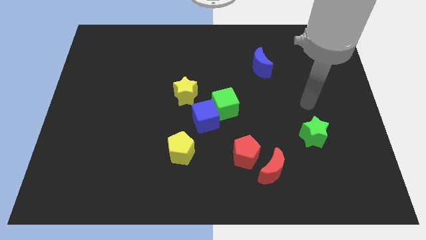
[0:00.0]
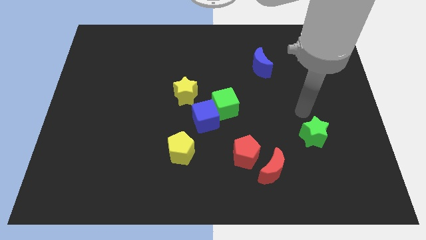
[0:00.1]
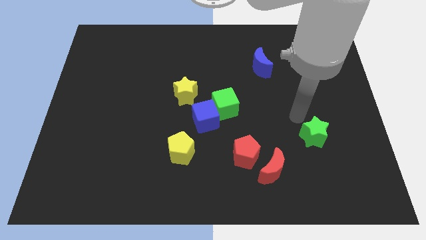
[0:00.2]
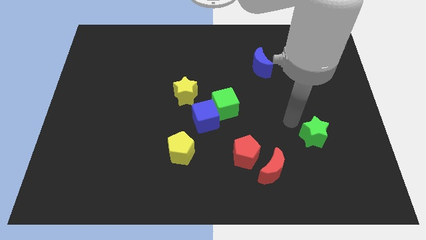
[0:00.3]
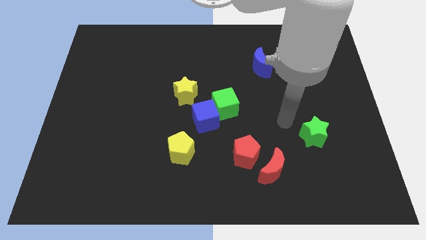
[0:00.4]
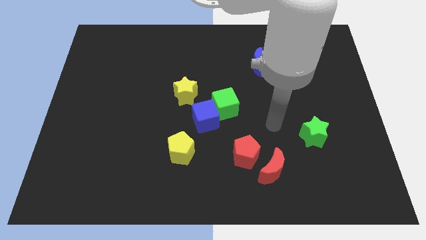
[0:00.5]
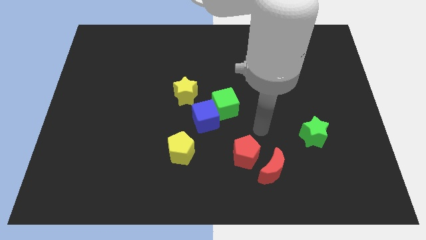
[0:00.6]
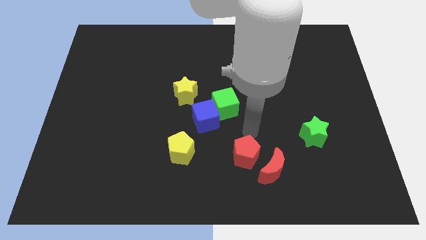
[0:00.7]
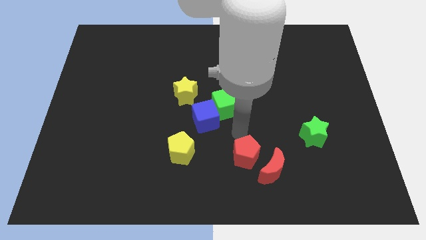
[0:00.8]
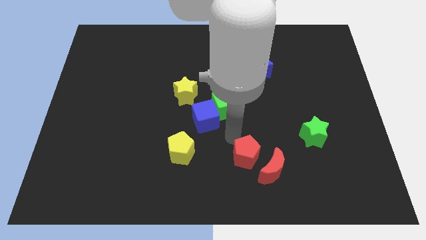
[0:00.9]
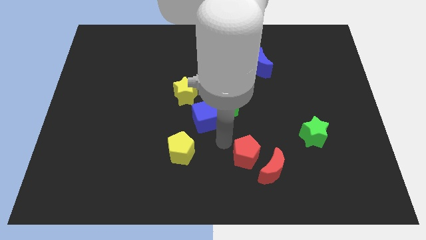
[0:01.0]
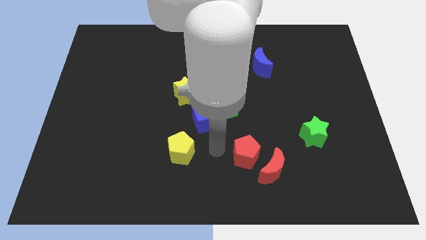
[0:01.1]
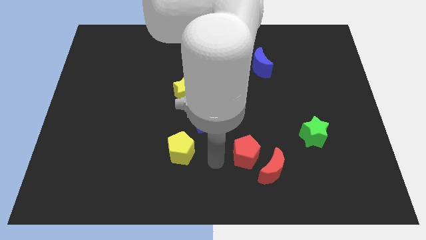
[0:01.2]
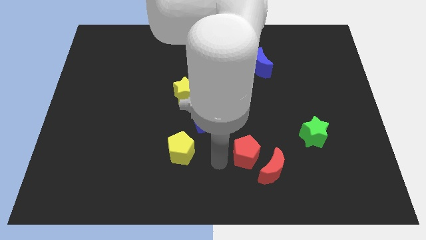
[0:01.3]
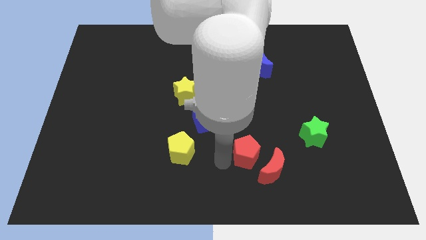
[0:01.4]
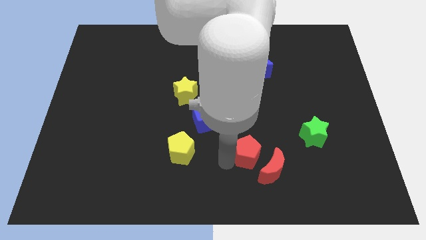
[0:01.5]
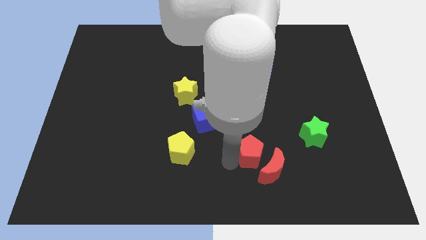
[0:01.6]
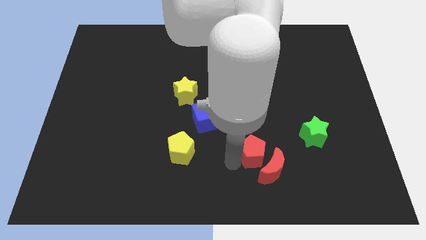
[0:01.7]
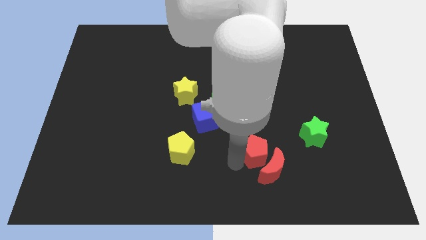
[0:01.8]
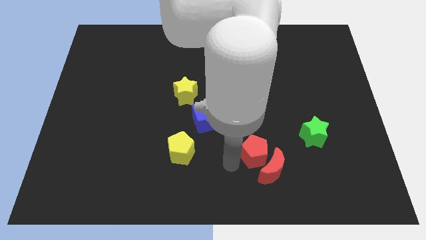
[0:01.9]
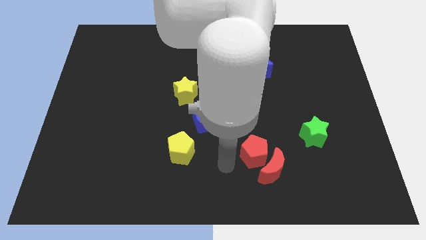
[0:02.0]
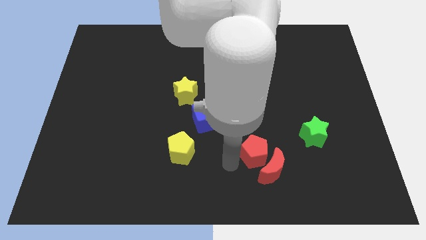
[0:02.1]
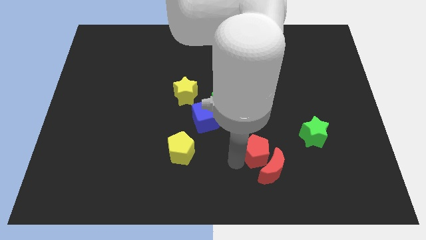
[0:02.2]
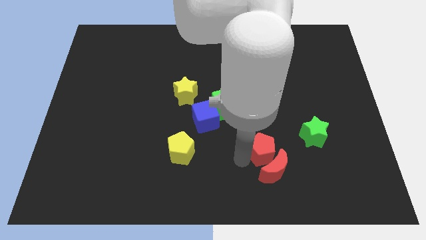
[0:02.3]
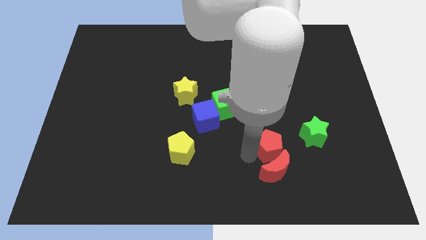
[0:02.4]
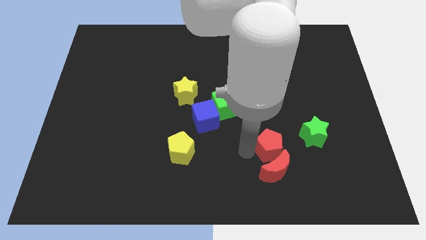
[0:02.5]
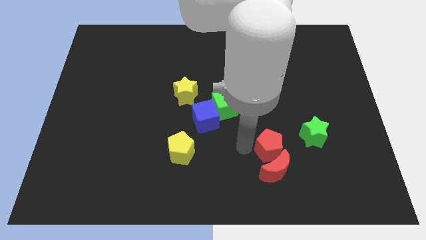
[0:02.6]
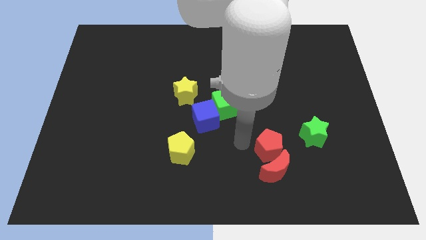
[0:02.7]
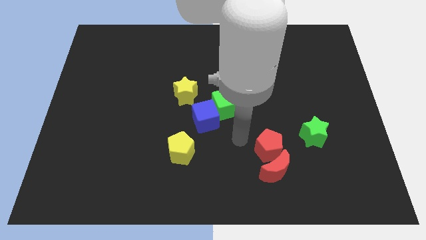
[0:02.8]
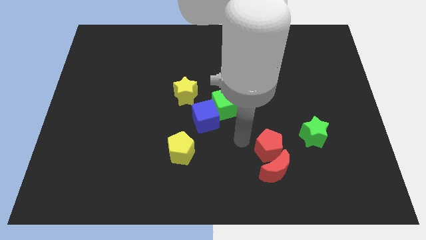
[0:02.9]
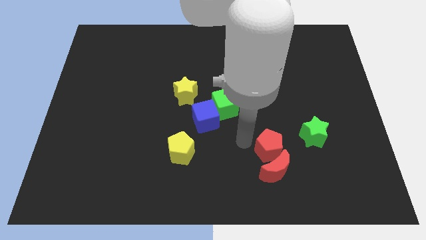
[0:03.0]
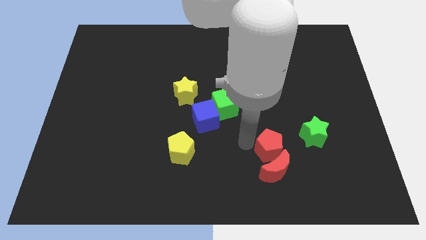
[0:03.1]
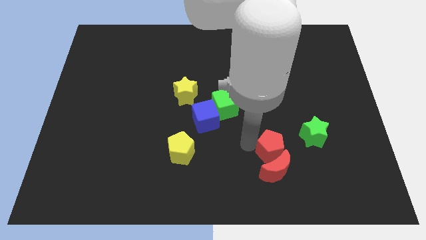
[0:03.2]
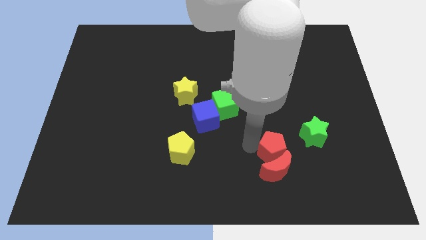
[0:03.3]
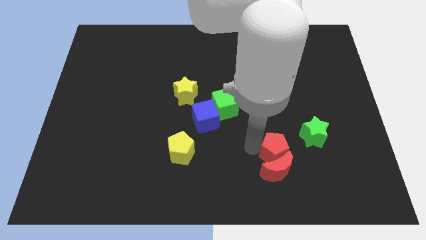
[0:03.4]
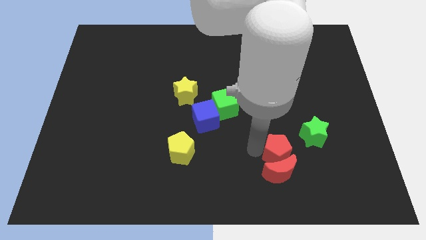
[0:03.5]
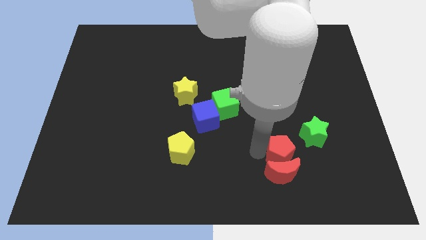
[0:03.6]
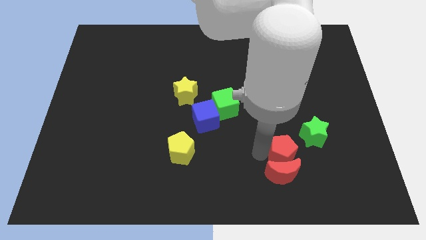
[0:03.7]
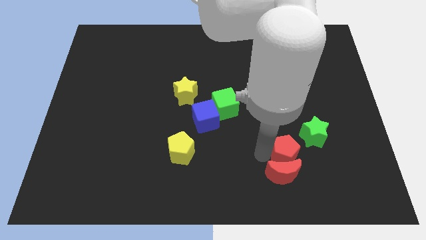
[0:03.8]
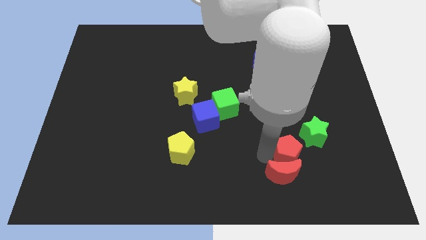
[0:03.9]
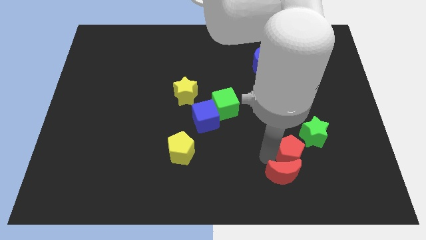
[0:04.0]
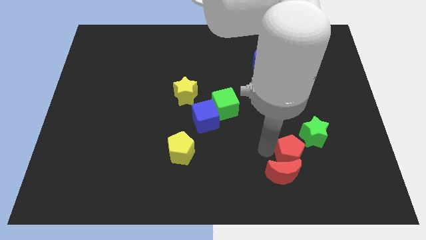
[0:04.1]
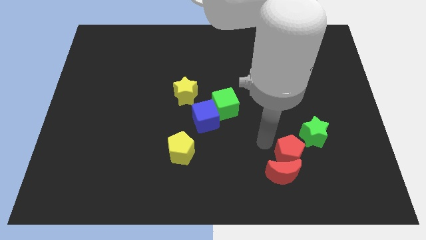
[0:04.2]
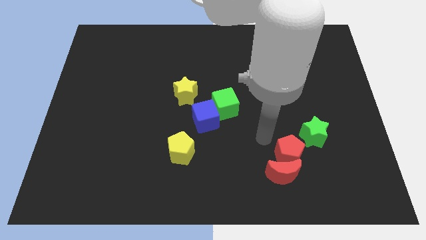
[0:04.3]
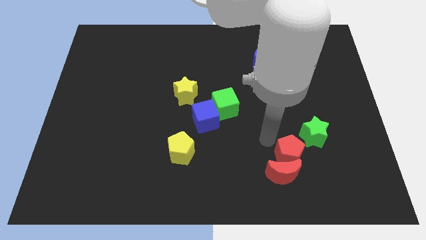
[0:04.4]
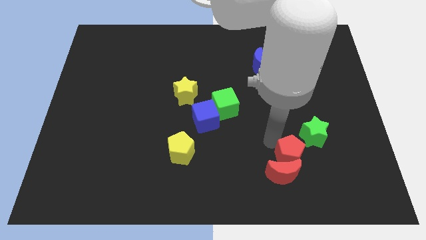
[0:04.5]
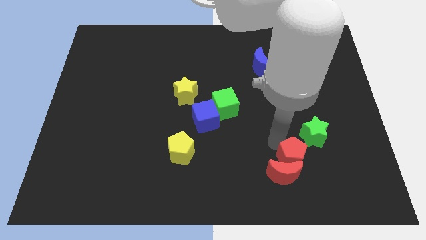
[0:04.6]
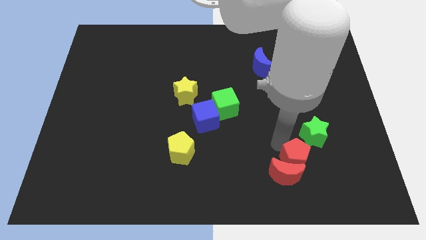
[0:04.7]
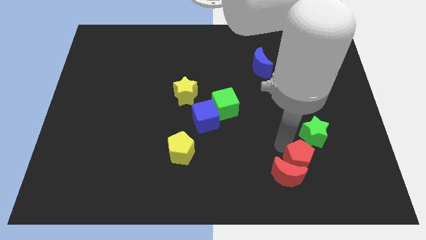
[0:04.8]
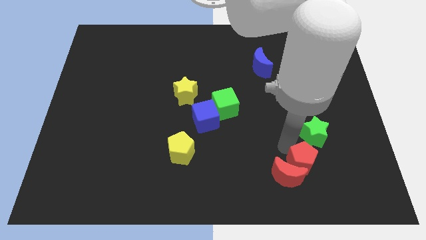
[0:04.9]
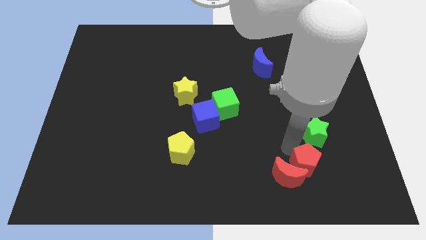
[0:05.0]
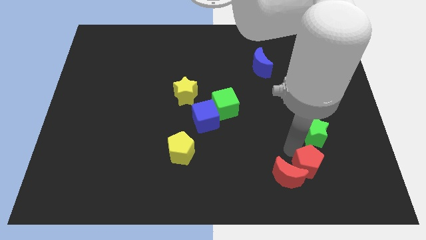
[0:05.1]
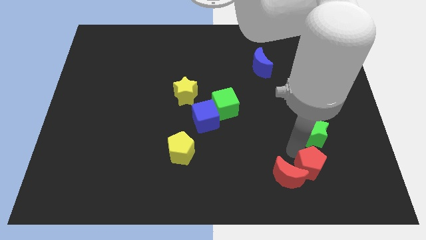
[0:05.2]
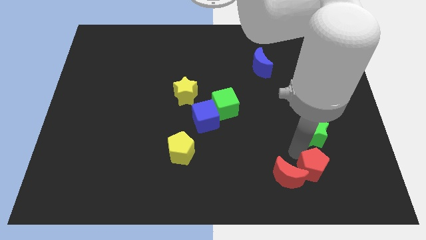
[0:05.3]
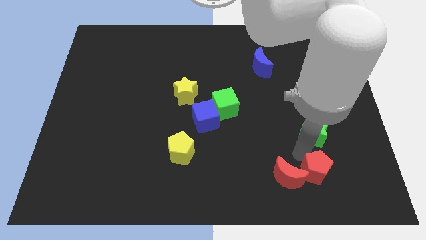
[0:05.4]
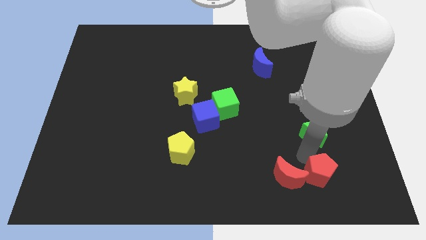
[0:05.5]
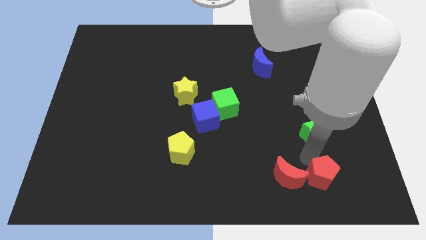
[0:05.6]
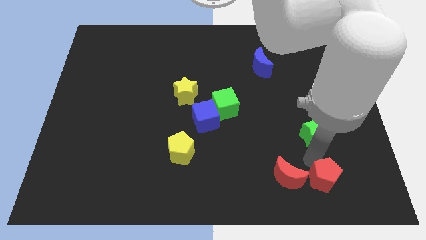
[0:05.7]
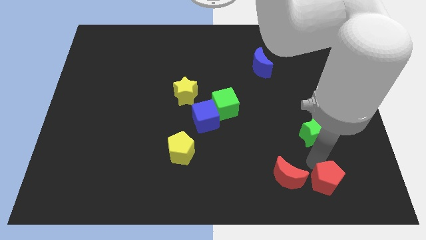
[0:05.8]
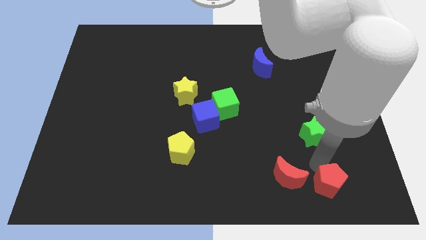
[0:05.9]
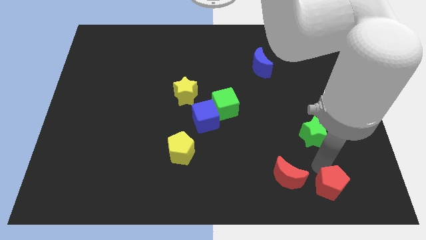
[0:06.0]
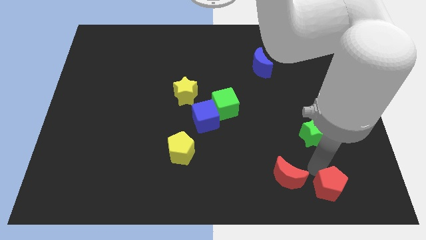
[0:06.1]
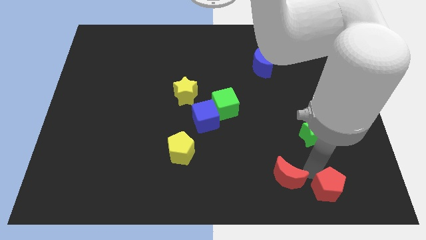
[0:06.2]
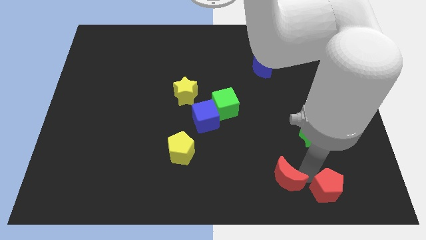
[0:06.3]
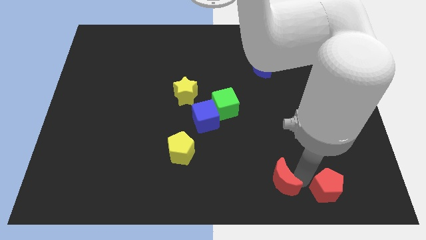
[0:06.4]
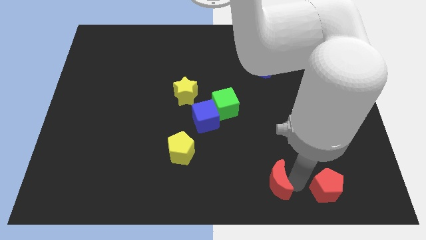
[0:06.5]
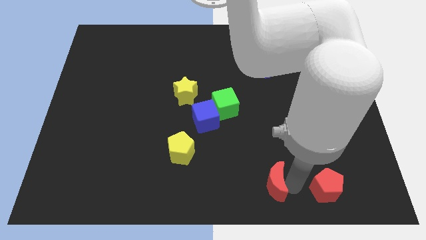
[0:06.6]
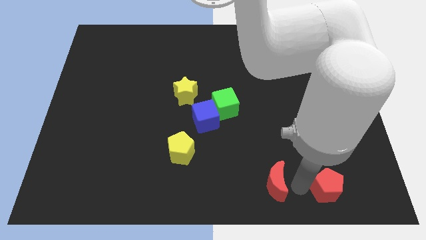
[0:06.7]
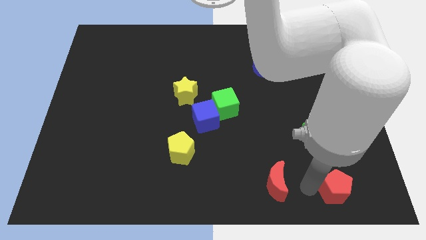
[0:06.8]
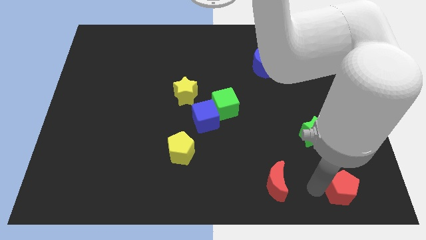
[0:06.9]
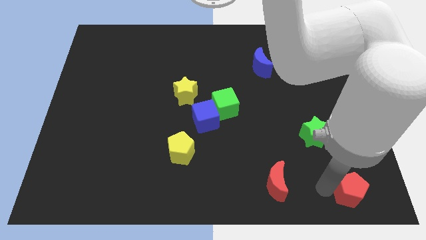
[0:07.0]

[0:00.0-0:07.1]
put the red pentagon to the bottom right
